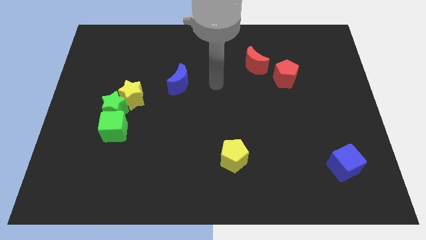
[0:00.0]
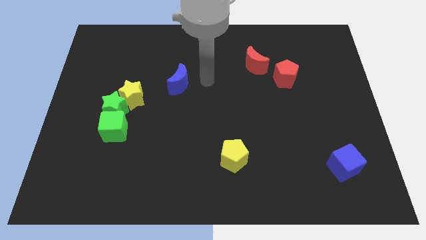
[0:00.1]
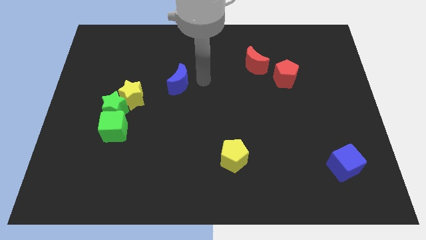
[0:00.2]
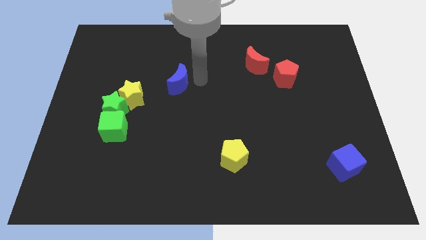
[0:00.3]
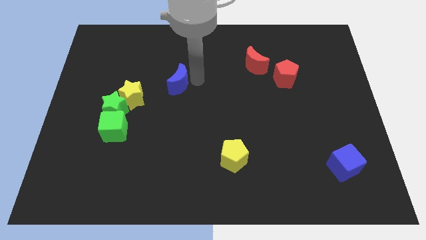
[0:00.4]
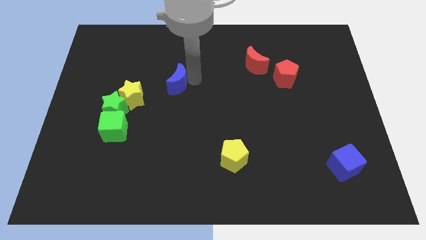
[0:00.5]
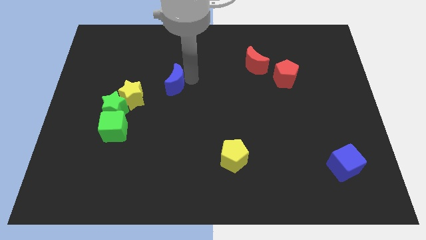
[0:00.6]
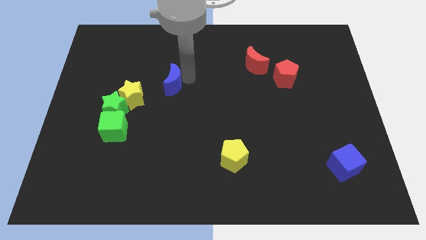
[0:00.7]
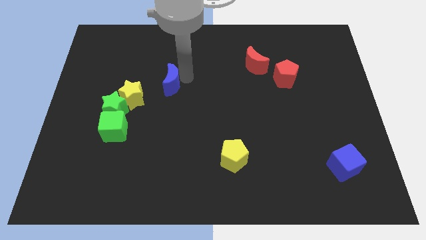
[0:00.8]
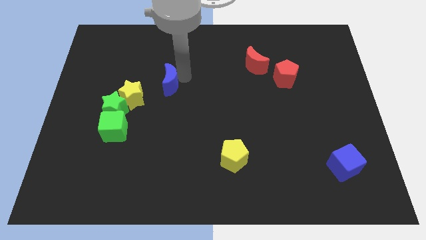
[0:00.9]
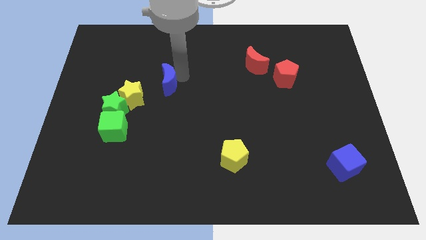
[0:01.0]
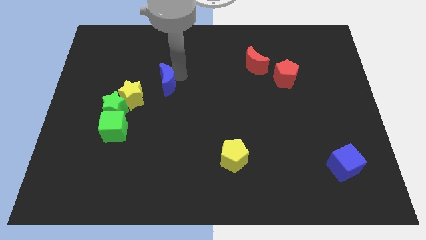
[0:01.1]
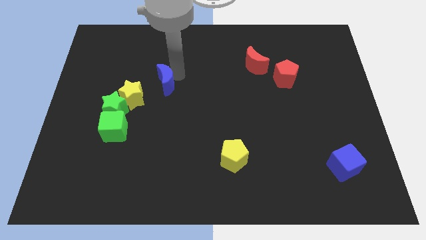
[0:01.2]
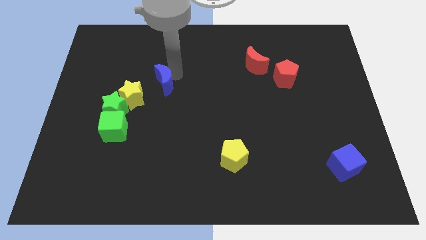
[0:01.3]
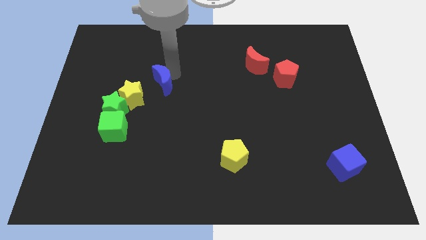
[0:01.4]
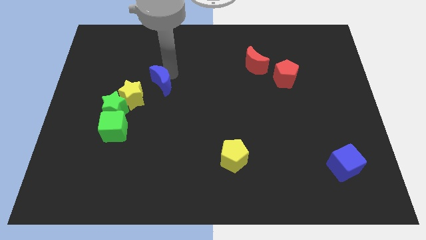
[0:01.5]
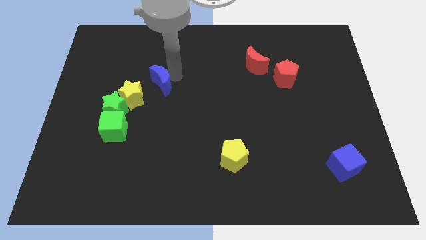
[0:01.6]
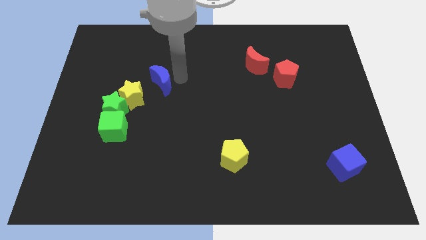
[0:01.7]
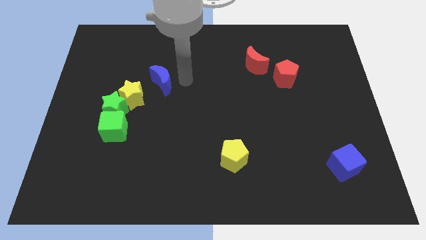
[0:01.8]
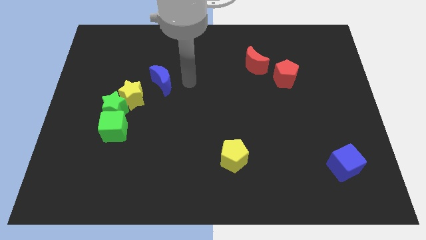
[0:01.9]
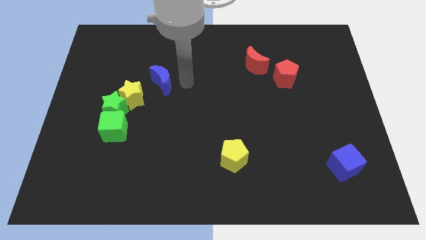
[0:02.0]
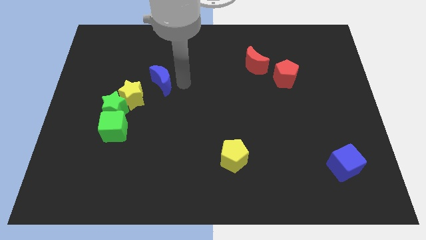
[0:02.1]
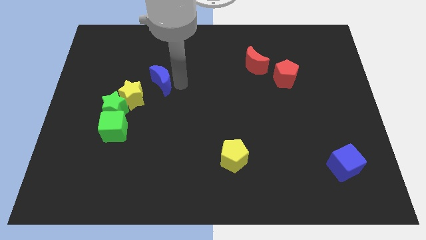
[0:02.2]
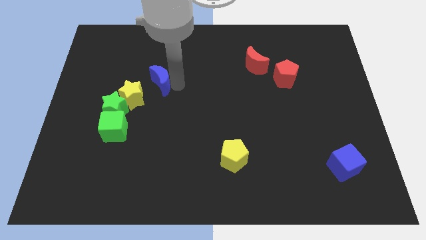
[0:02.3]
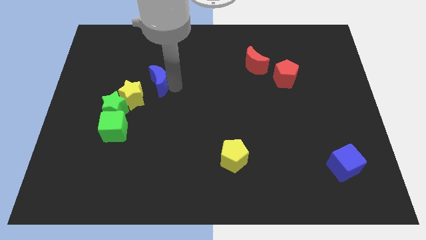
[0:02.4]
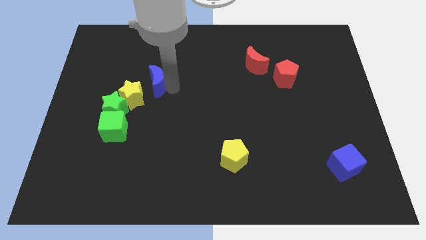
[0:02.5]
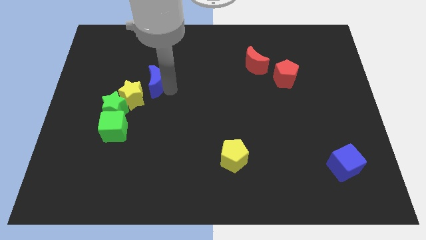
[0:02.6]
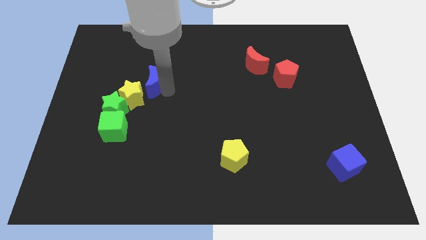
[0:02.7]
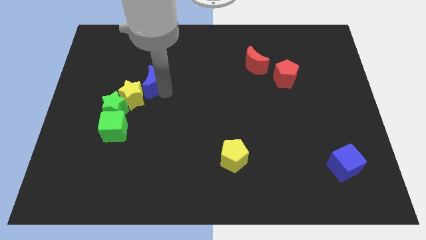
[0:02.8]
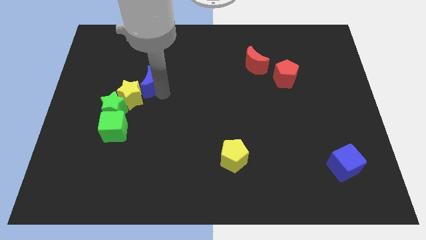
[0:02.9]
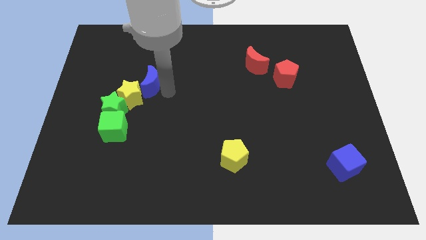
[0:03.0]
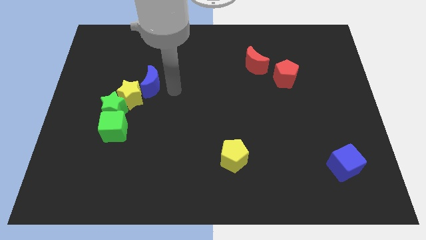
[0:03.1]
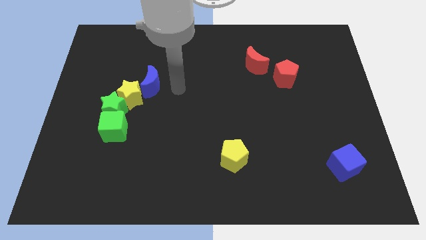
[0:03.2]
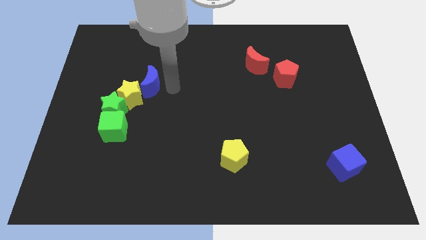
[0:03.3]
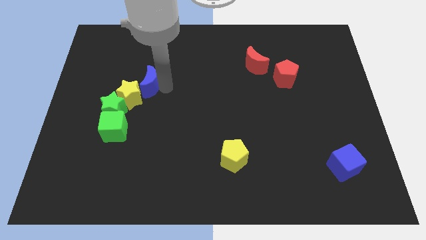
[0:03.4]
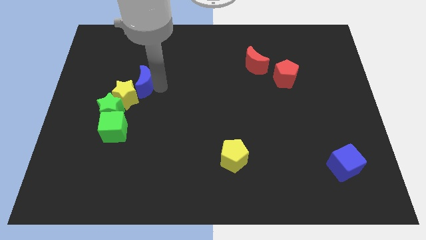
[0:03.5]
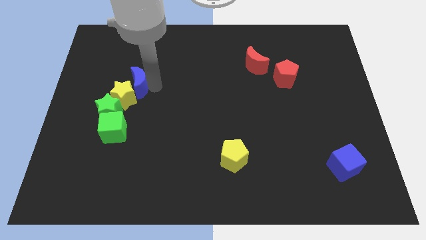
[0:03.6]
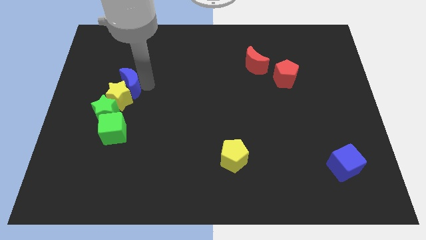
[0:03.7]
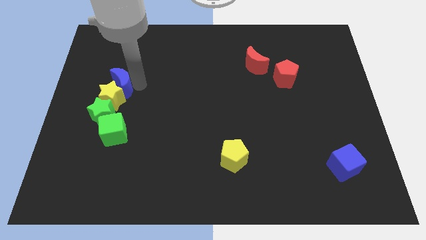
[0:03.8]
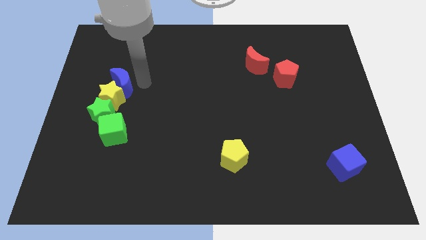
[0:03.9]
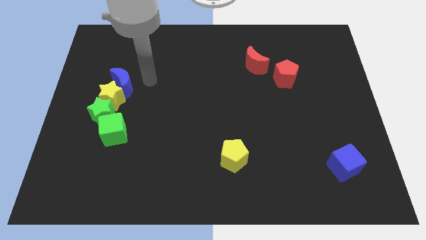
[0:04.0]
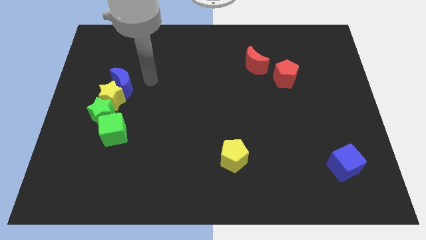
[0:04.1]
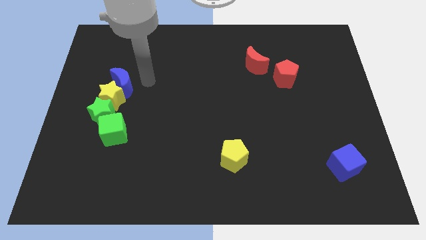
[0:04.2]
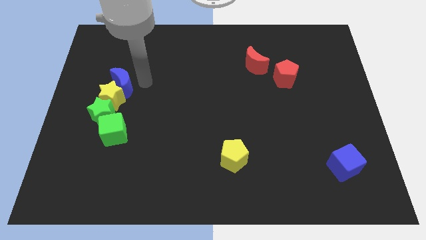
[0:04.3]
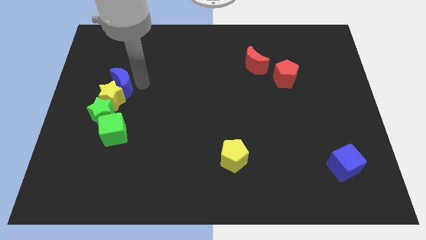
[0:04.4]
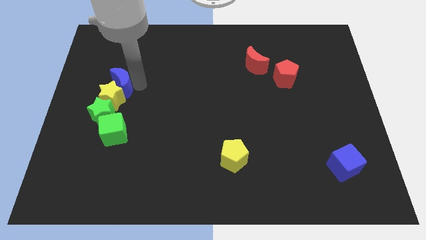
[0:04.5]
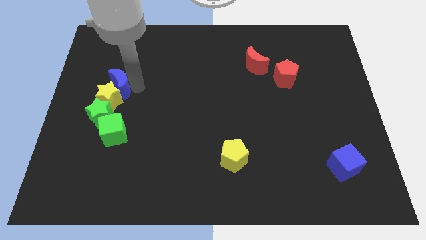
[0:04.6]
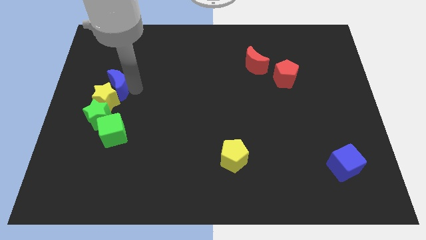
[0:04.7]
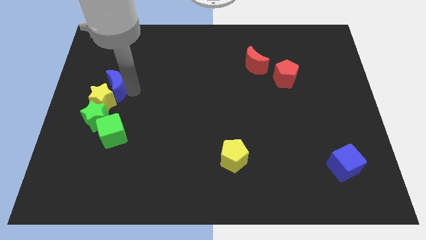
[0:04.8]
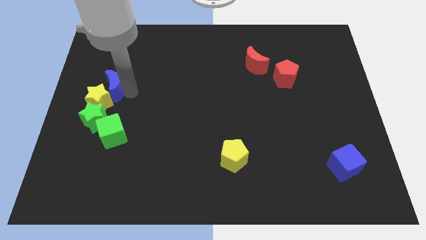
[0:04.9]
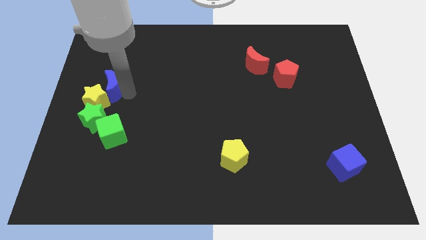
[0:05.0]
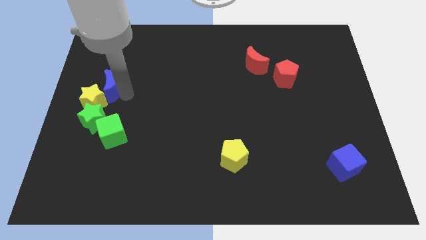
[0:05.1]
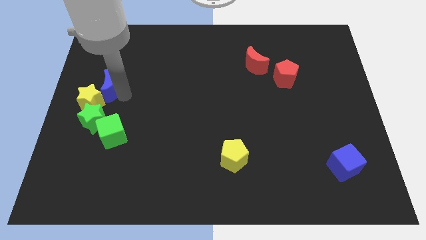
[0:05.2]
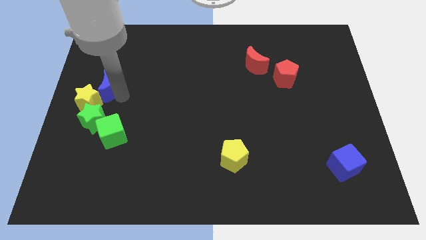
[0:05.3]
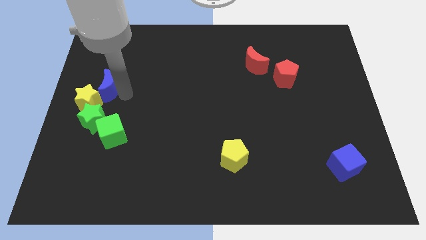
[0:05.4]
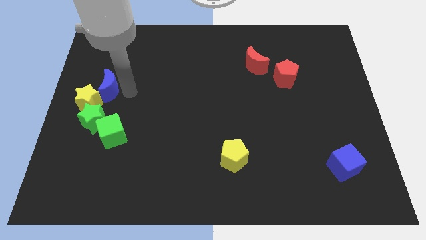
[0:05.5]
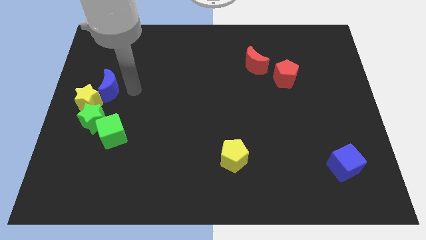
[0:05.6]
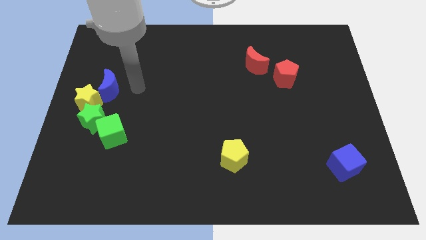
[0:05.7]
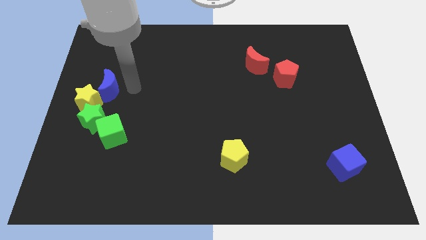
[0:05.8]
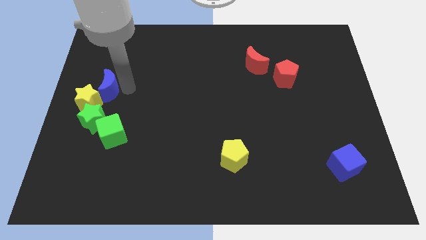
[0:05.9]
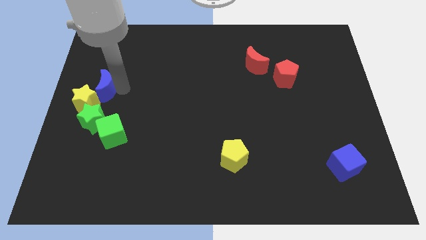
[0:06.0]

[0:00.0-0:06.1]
push the blue moon to the center left
